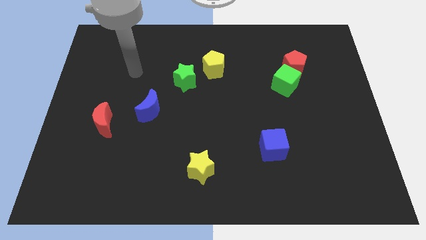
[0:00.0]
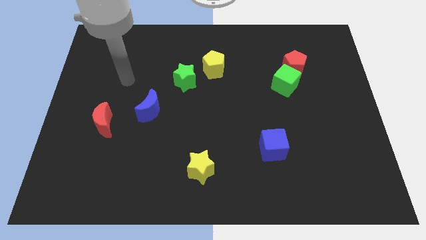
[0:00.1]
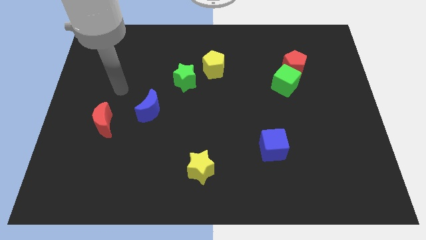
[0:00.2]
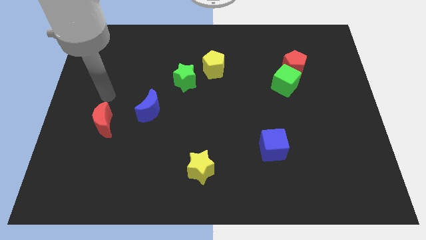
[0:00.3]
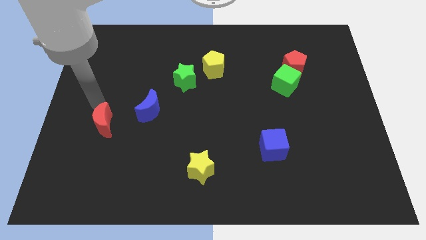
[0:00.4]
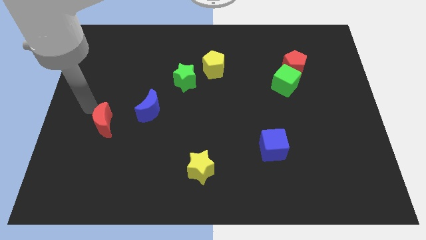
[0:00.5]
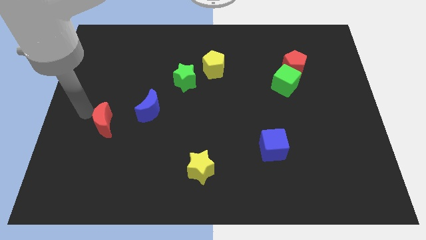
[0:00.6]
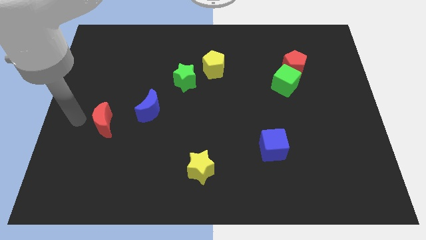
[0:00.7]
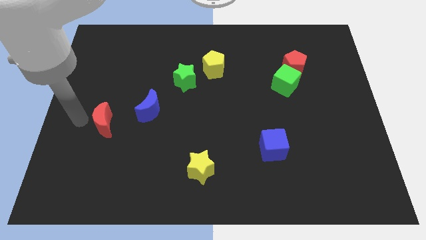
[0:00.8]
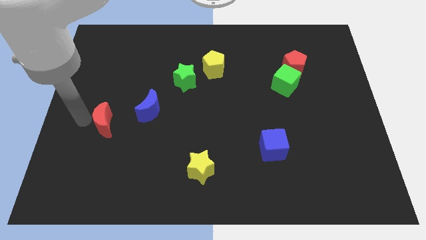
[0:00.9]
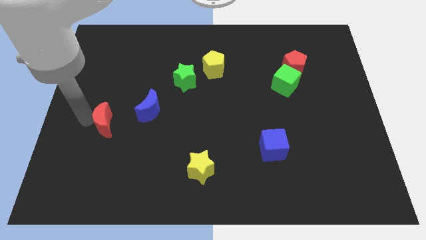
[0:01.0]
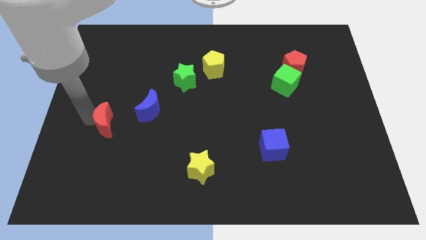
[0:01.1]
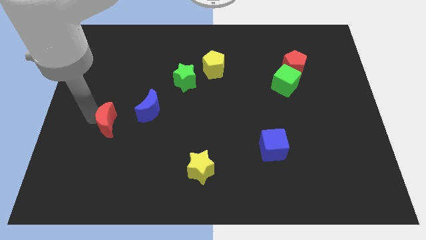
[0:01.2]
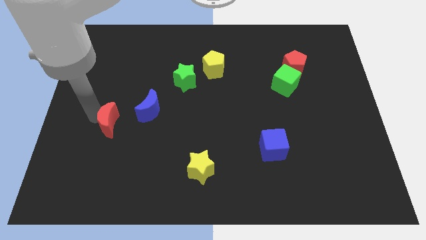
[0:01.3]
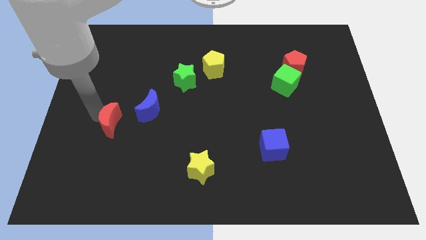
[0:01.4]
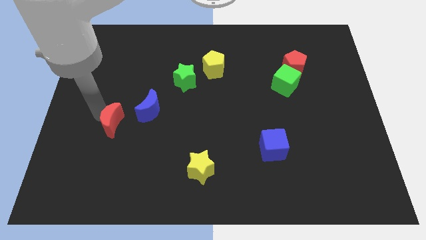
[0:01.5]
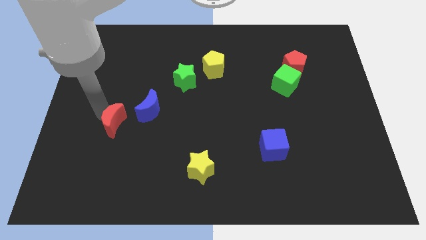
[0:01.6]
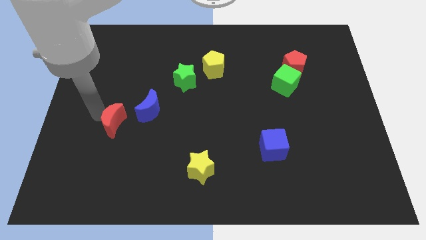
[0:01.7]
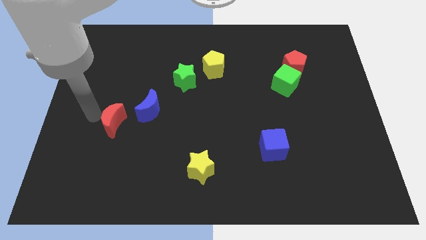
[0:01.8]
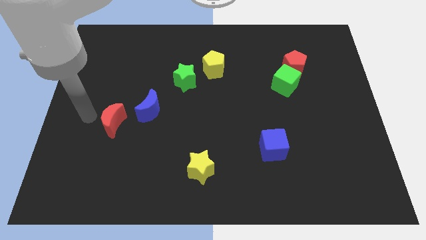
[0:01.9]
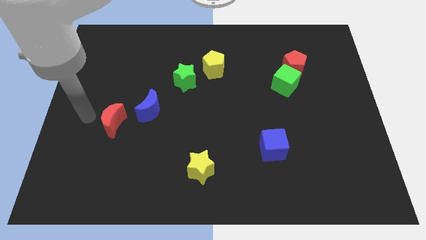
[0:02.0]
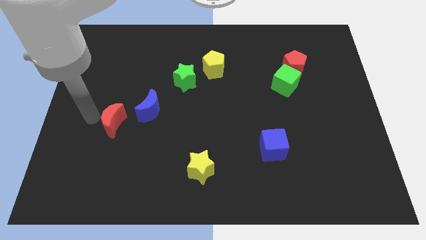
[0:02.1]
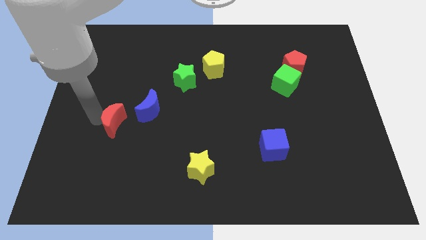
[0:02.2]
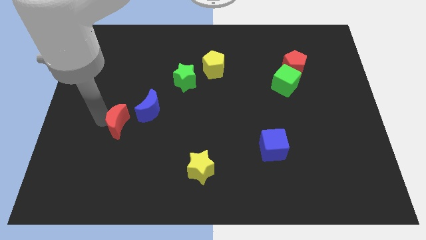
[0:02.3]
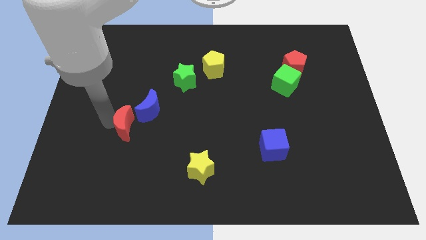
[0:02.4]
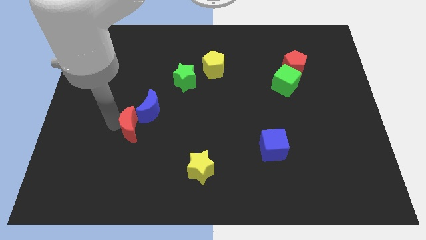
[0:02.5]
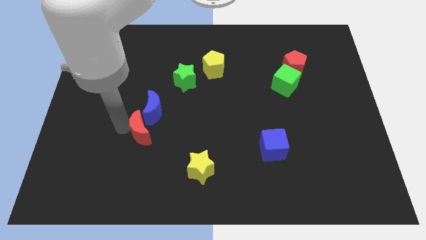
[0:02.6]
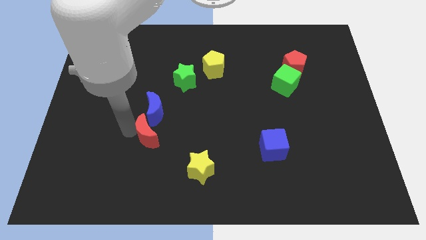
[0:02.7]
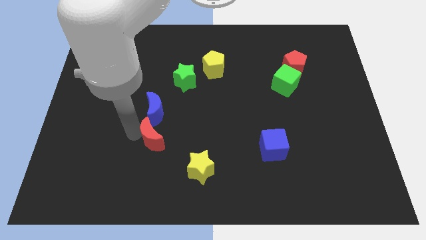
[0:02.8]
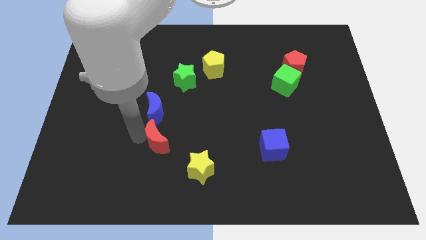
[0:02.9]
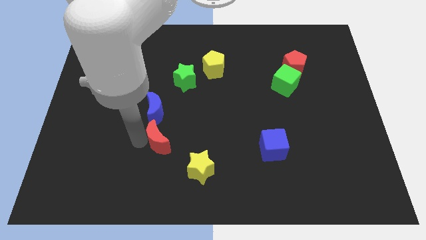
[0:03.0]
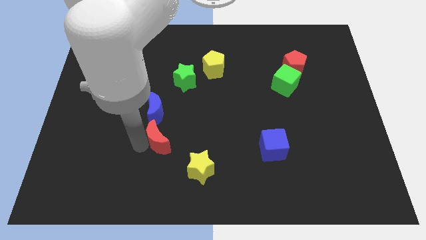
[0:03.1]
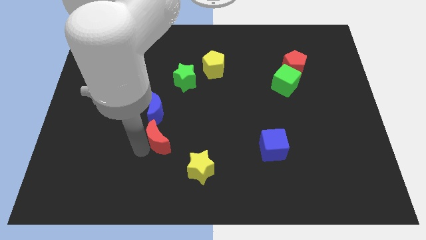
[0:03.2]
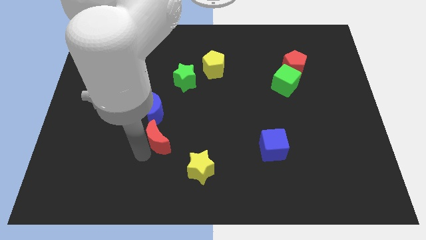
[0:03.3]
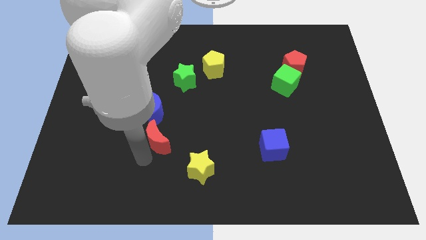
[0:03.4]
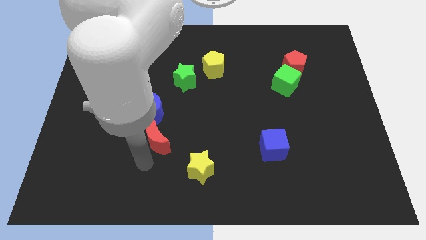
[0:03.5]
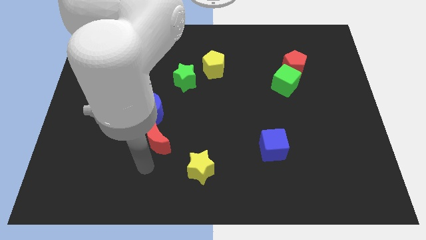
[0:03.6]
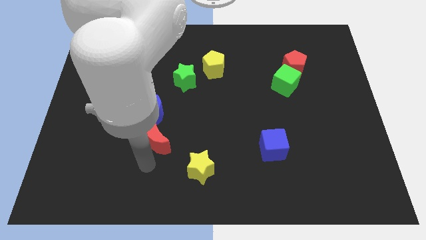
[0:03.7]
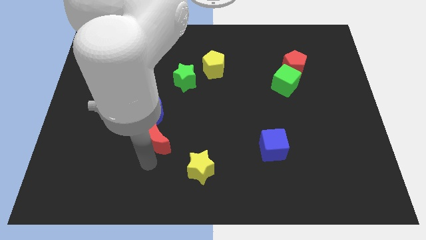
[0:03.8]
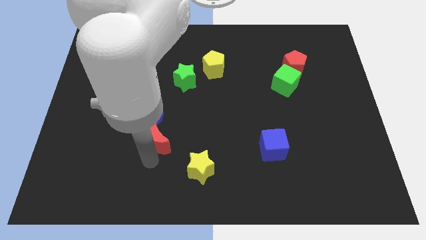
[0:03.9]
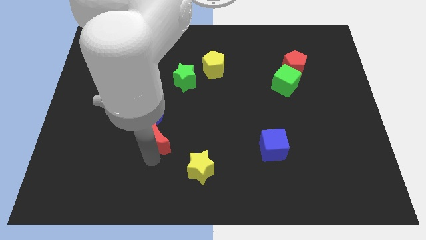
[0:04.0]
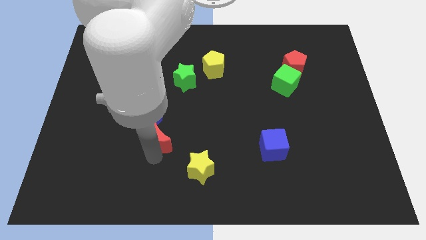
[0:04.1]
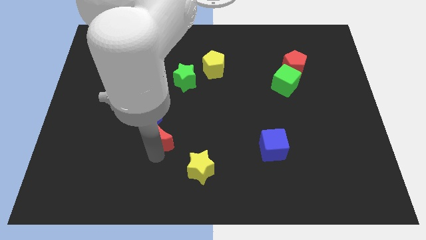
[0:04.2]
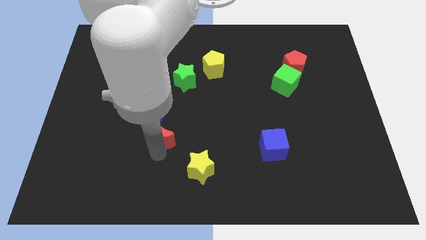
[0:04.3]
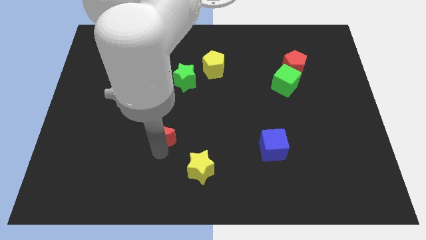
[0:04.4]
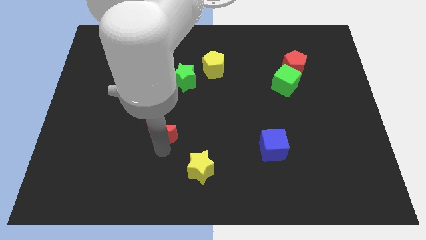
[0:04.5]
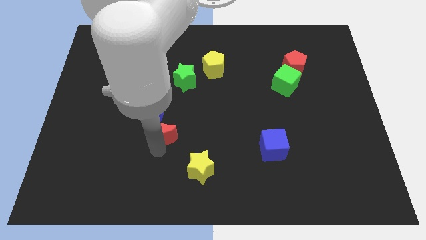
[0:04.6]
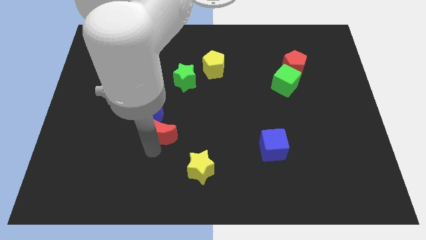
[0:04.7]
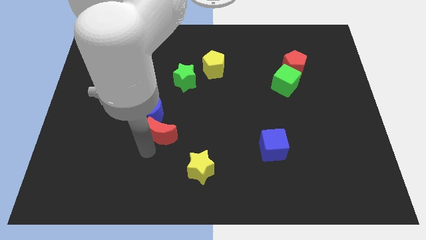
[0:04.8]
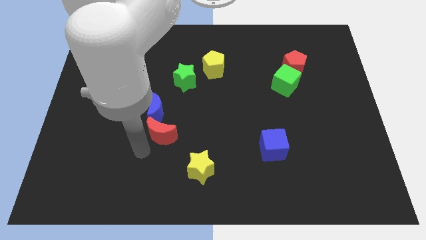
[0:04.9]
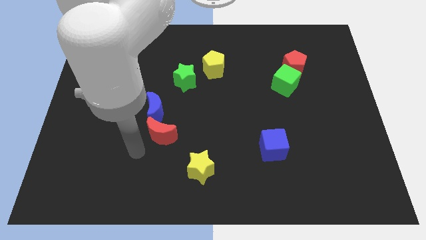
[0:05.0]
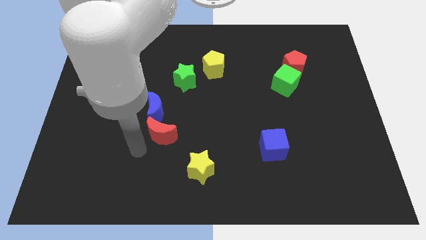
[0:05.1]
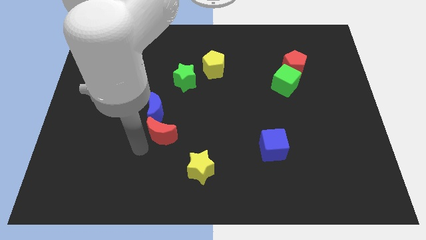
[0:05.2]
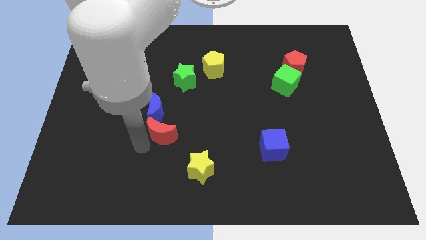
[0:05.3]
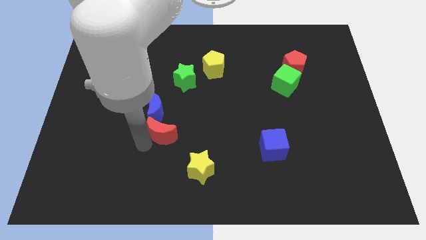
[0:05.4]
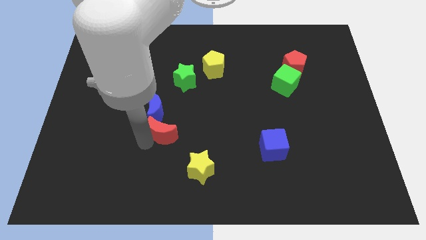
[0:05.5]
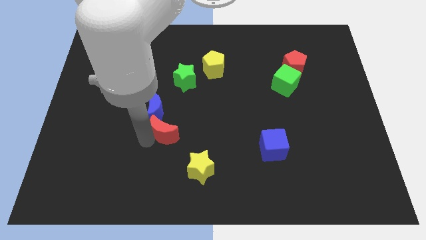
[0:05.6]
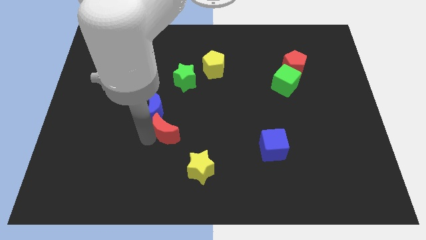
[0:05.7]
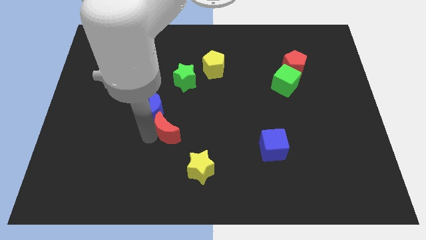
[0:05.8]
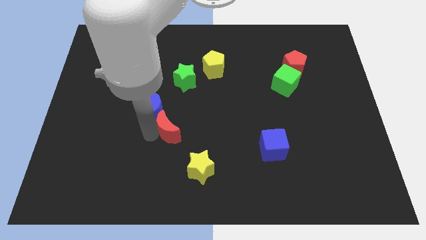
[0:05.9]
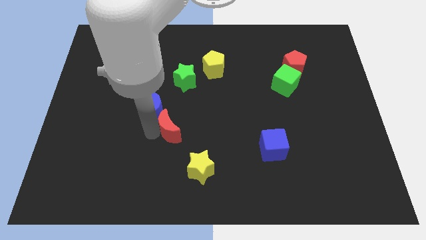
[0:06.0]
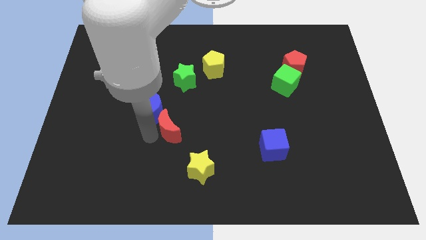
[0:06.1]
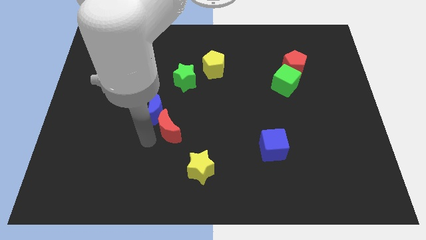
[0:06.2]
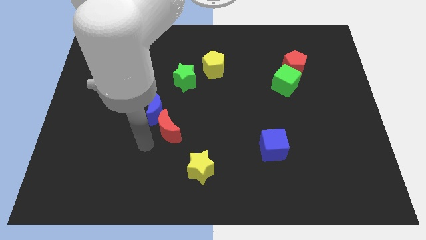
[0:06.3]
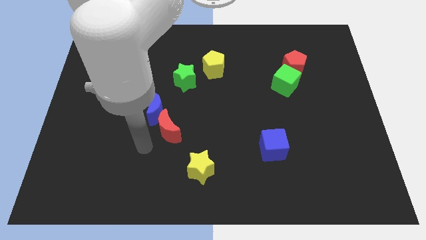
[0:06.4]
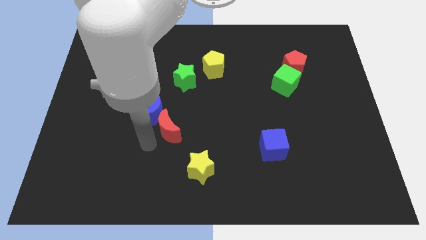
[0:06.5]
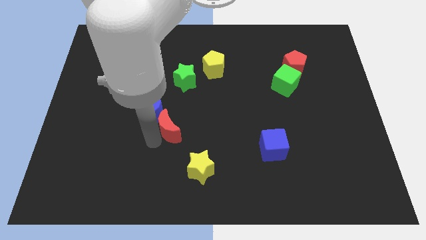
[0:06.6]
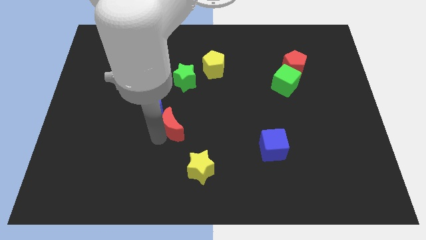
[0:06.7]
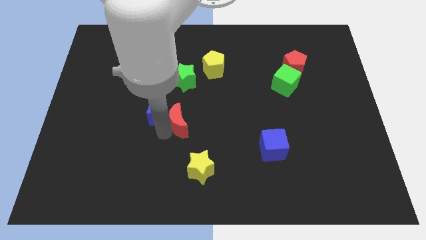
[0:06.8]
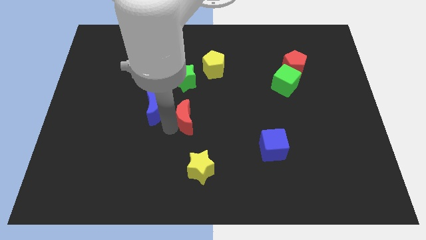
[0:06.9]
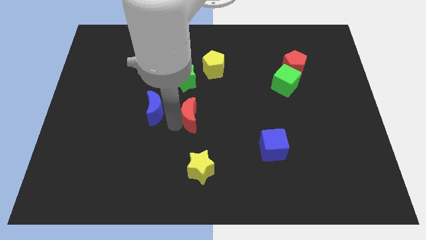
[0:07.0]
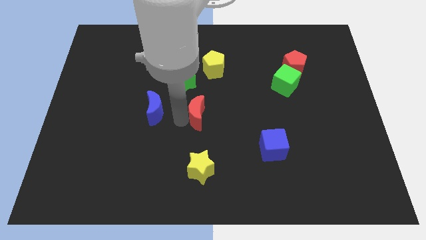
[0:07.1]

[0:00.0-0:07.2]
push the red moon right

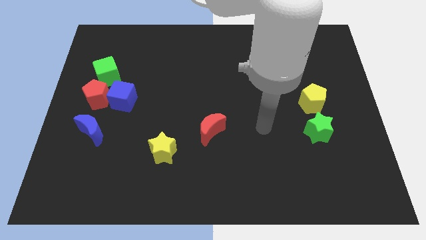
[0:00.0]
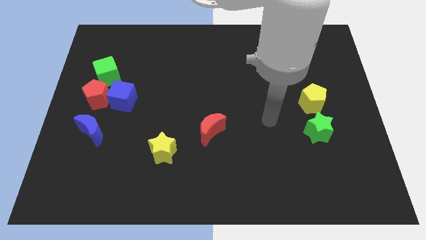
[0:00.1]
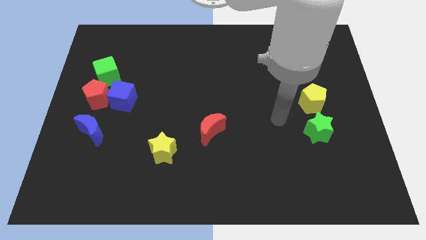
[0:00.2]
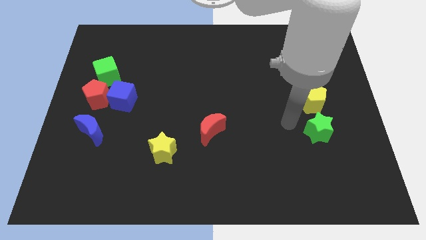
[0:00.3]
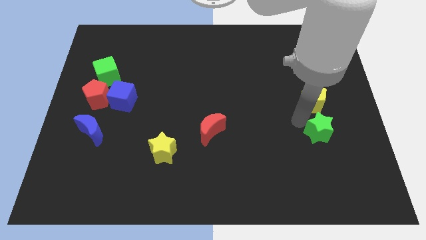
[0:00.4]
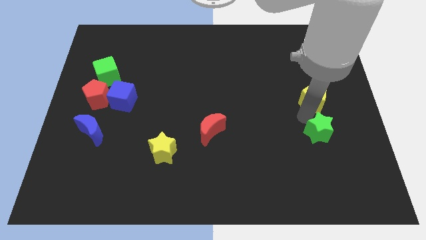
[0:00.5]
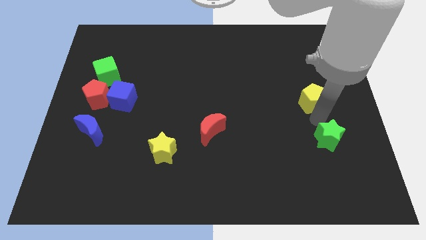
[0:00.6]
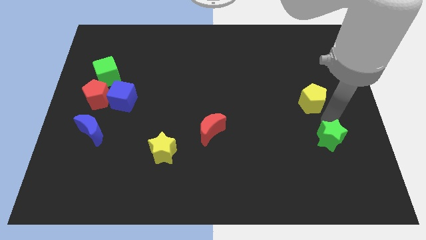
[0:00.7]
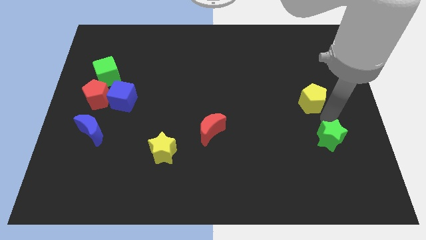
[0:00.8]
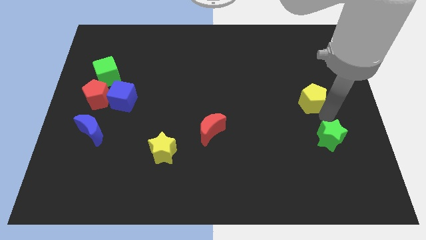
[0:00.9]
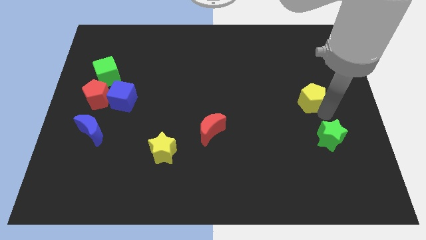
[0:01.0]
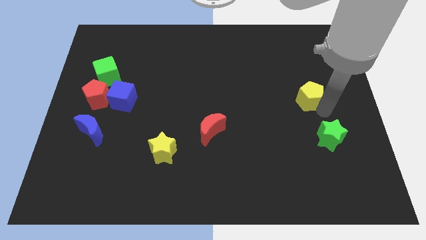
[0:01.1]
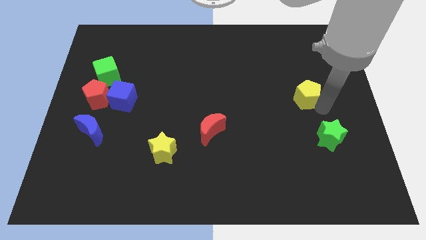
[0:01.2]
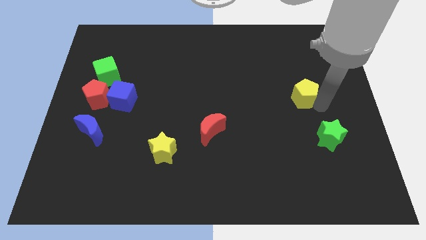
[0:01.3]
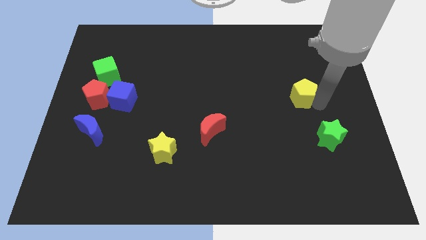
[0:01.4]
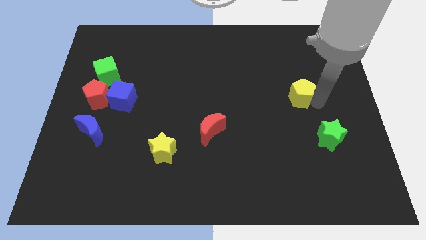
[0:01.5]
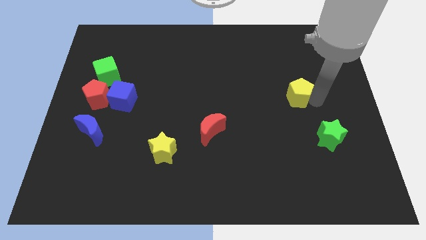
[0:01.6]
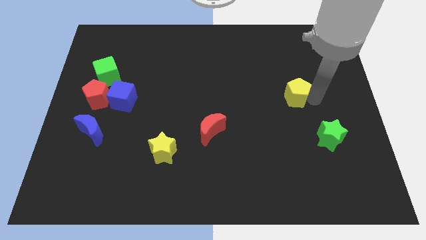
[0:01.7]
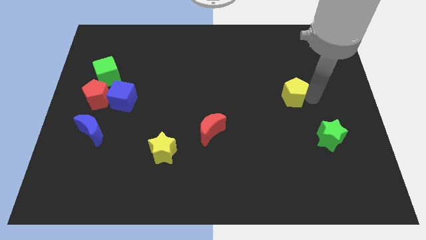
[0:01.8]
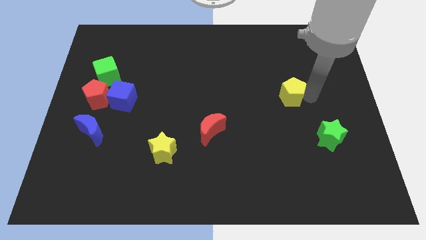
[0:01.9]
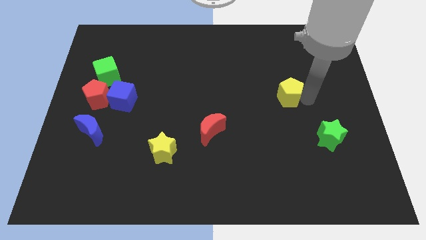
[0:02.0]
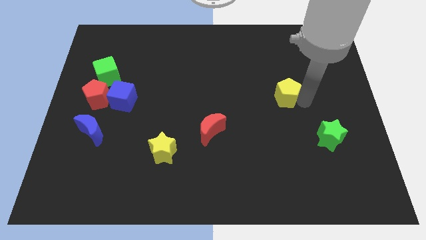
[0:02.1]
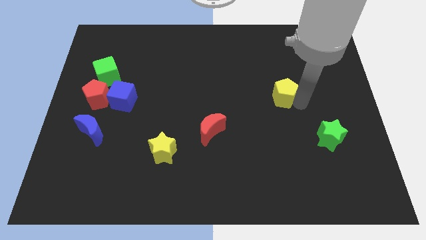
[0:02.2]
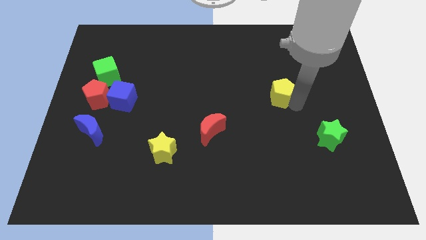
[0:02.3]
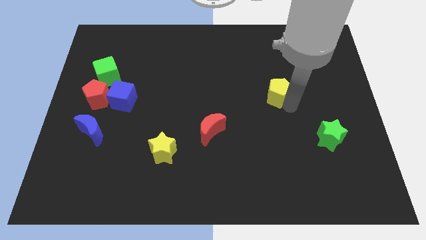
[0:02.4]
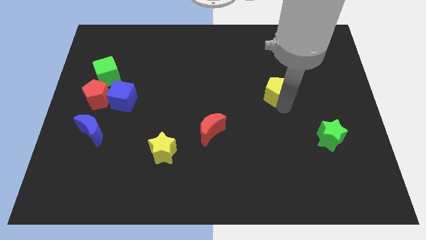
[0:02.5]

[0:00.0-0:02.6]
move the yellow pentagon diagonally up and left slightly
